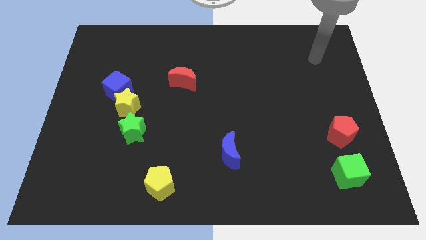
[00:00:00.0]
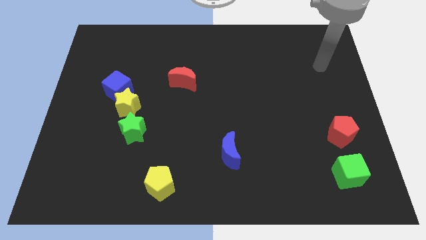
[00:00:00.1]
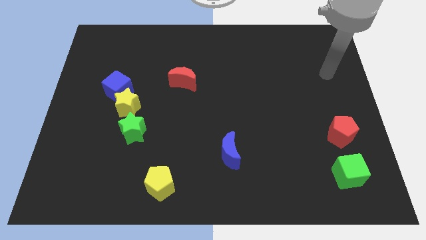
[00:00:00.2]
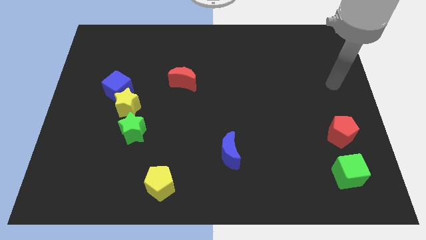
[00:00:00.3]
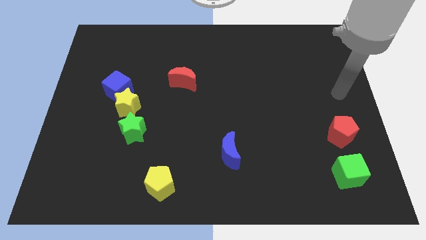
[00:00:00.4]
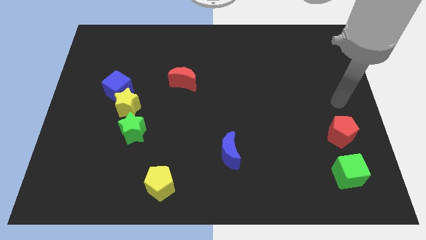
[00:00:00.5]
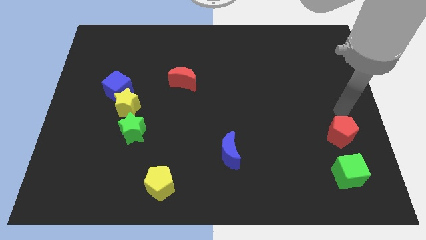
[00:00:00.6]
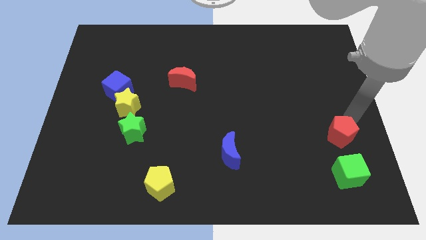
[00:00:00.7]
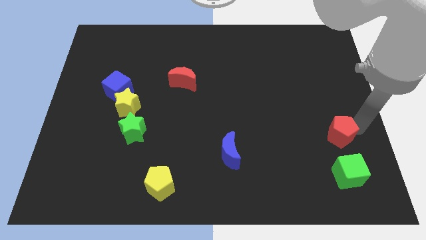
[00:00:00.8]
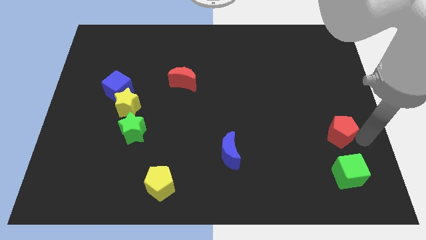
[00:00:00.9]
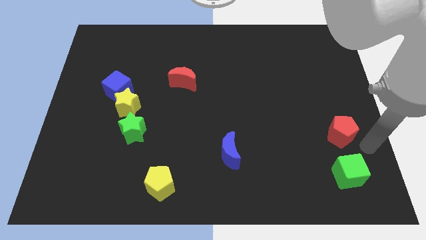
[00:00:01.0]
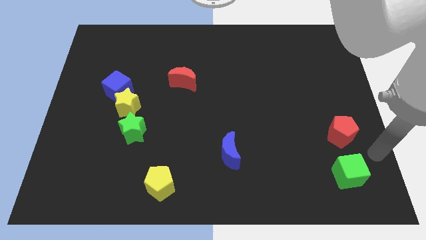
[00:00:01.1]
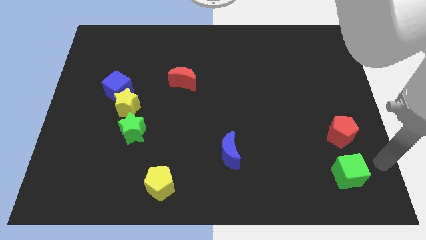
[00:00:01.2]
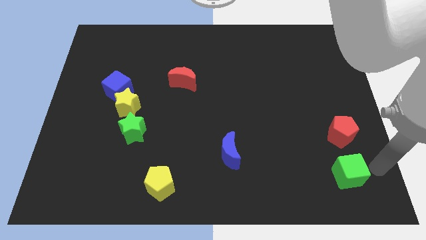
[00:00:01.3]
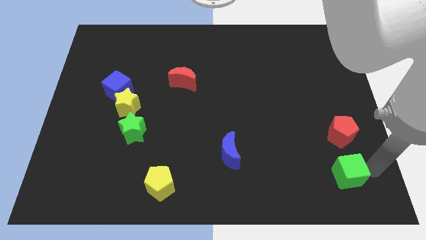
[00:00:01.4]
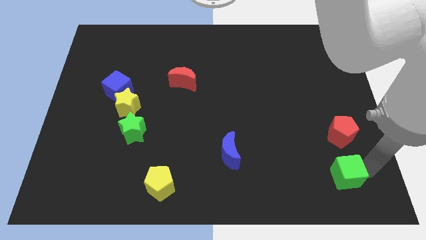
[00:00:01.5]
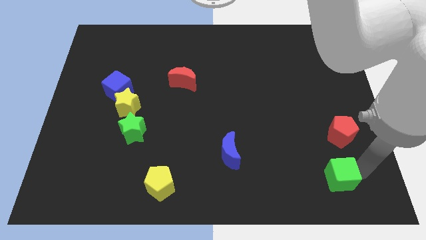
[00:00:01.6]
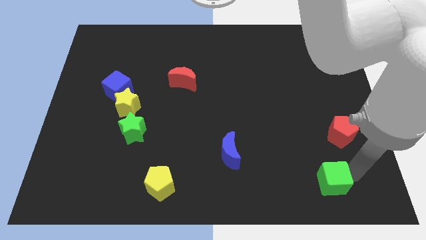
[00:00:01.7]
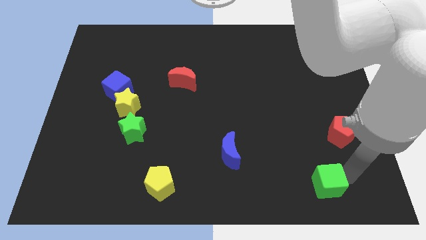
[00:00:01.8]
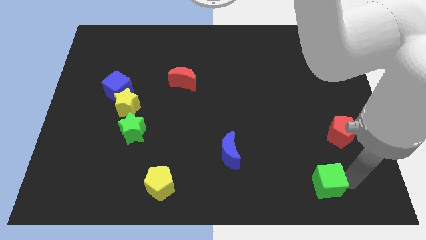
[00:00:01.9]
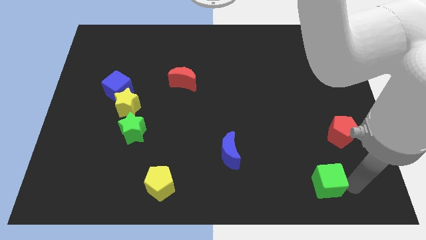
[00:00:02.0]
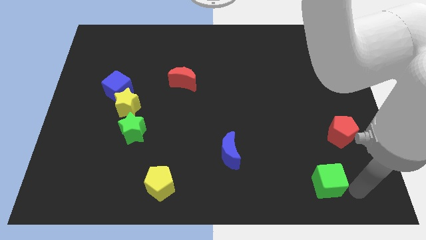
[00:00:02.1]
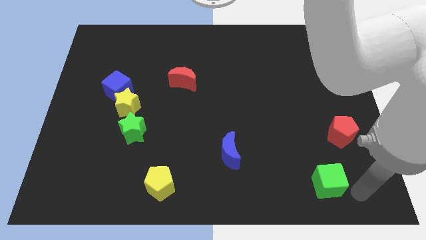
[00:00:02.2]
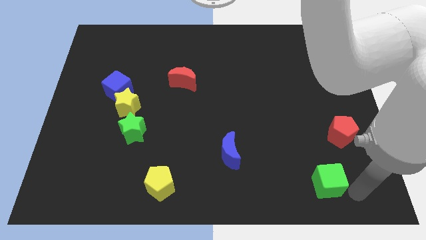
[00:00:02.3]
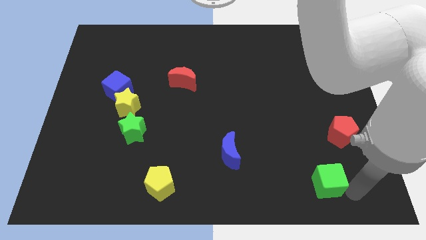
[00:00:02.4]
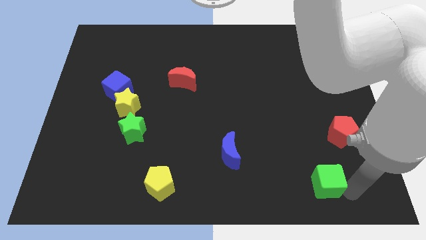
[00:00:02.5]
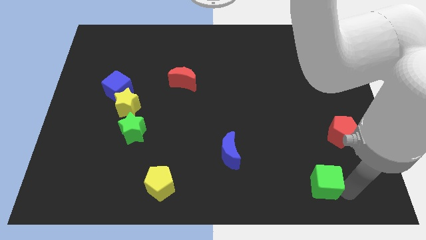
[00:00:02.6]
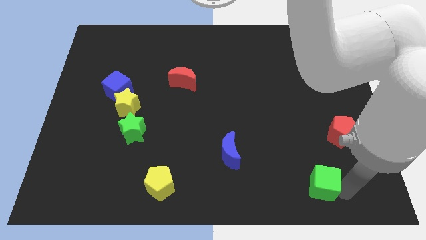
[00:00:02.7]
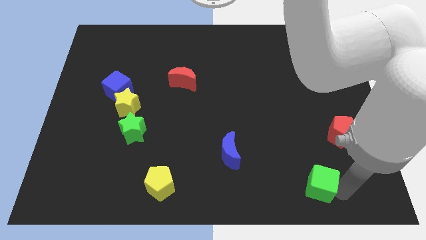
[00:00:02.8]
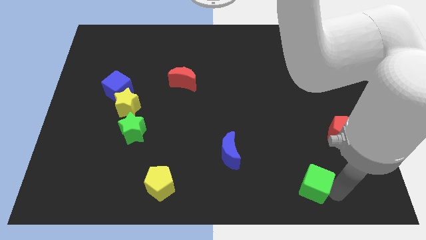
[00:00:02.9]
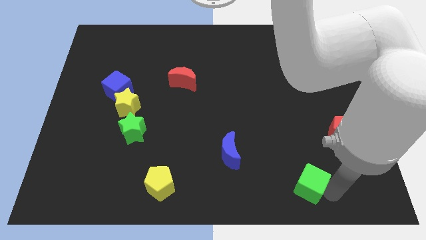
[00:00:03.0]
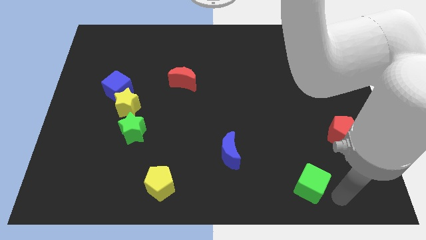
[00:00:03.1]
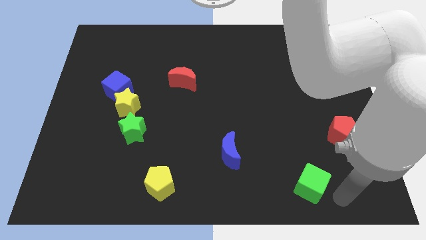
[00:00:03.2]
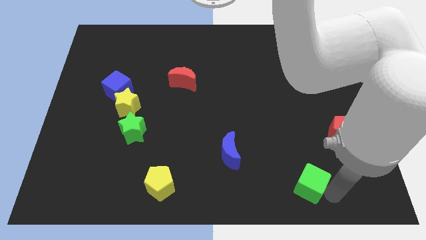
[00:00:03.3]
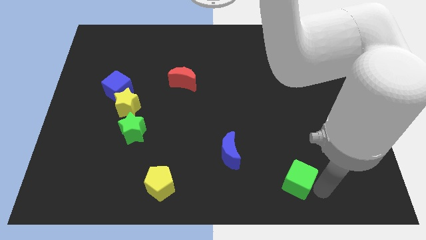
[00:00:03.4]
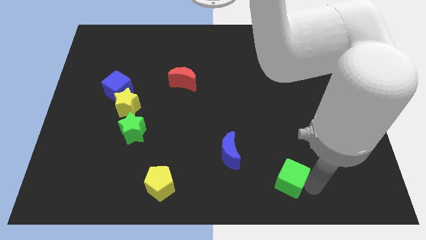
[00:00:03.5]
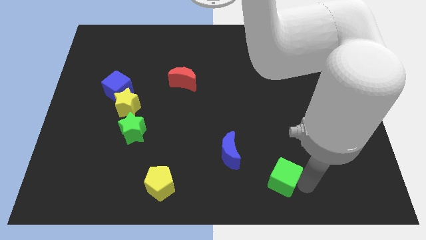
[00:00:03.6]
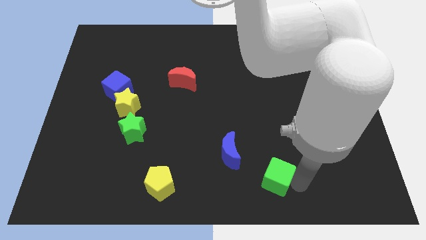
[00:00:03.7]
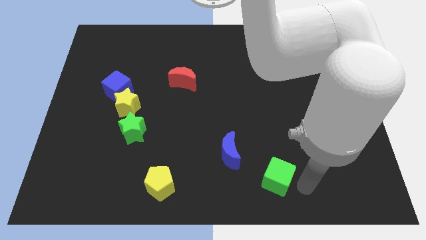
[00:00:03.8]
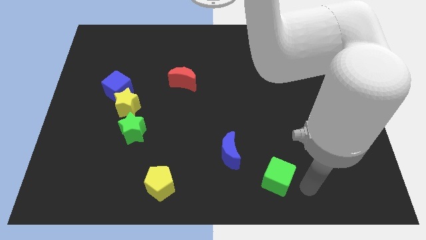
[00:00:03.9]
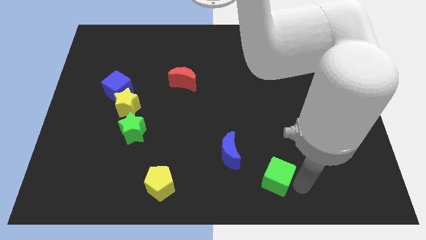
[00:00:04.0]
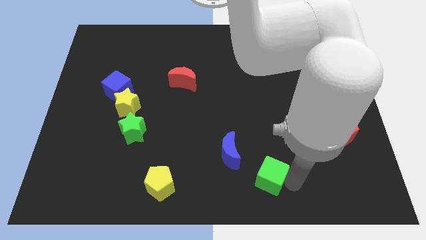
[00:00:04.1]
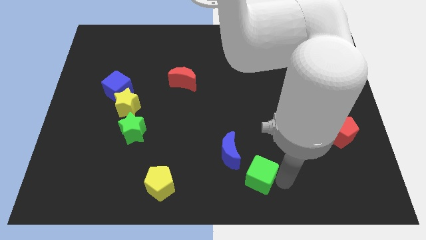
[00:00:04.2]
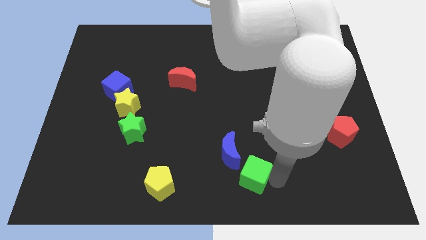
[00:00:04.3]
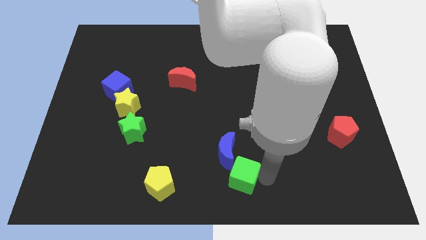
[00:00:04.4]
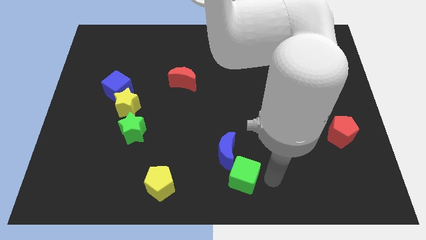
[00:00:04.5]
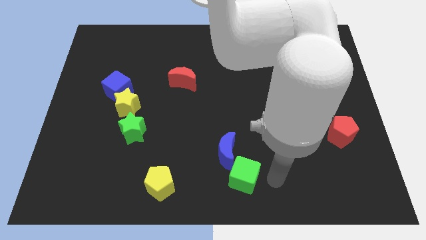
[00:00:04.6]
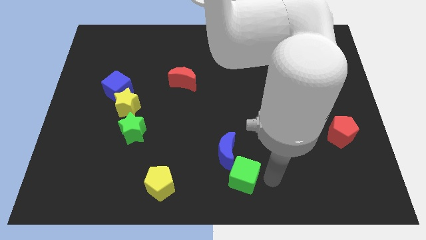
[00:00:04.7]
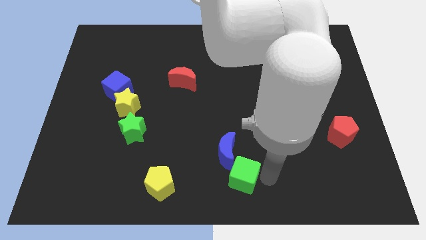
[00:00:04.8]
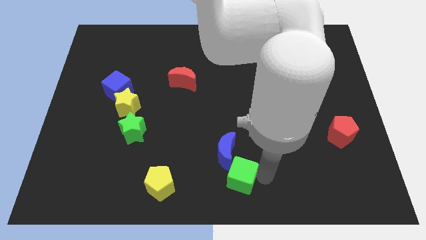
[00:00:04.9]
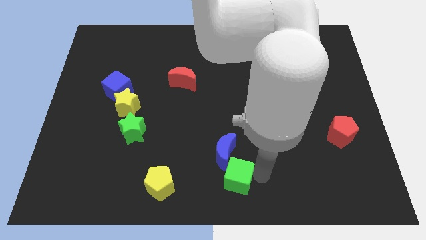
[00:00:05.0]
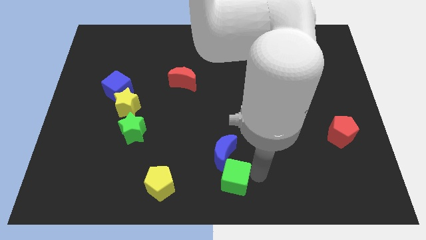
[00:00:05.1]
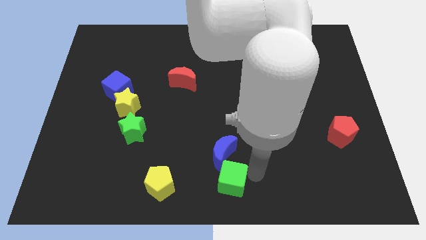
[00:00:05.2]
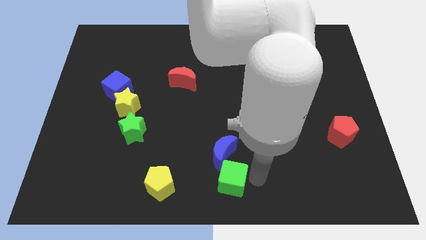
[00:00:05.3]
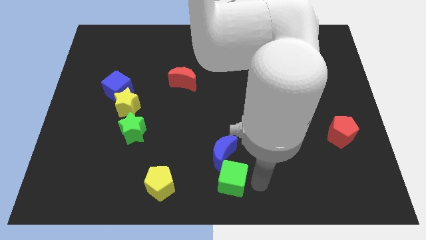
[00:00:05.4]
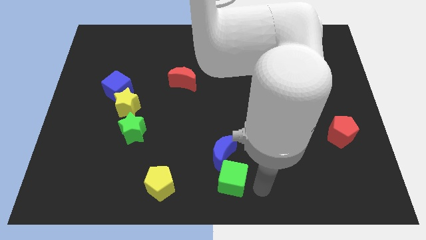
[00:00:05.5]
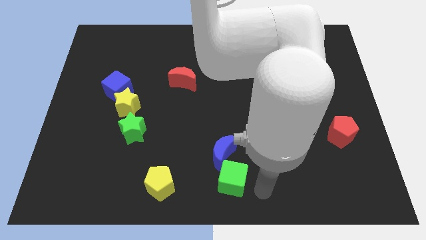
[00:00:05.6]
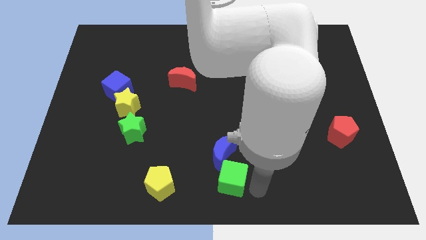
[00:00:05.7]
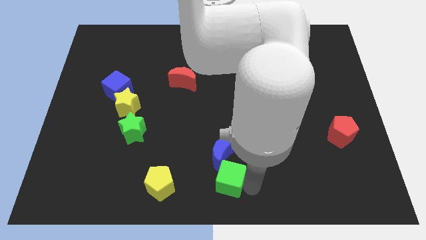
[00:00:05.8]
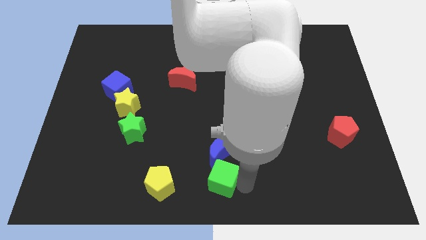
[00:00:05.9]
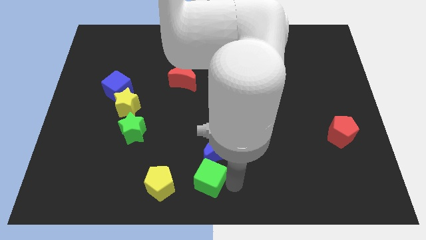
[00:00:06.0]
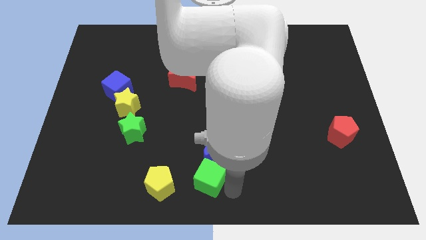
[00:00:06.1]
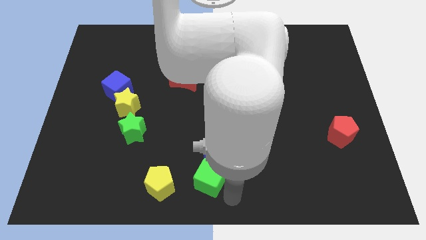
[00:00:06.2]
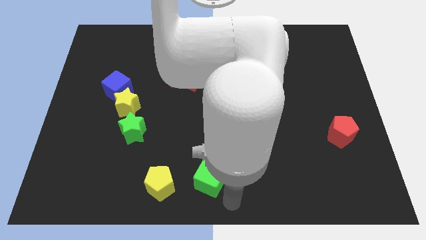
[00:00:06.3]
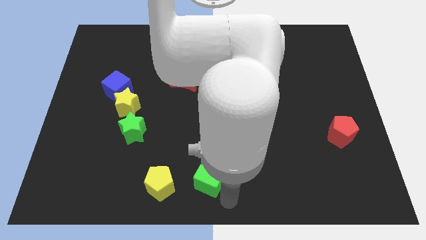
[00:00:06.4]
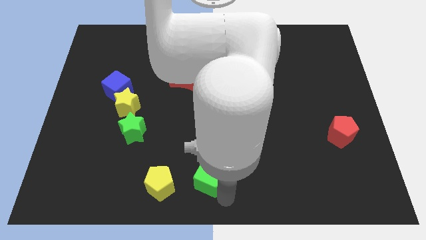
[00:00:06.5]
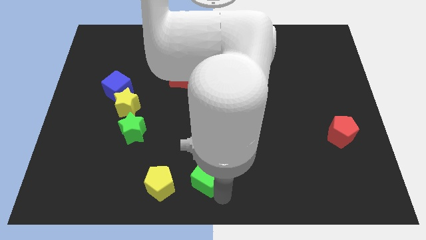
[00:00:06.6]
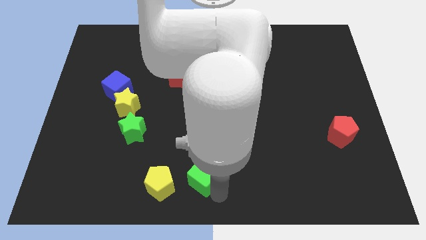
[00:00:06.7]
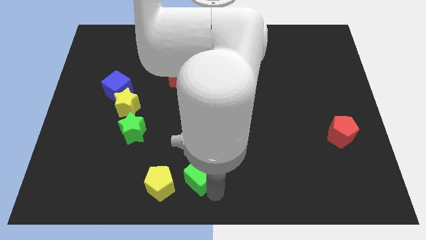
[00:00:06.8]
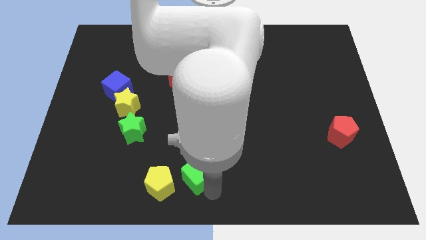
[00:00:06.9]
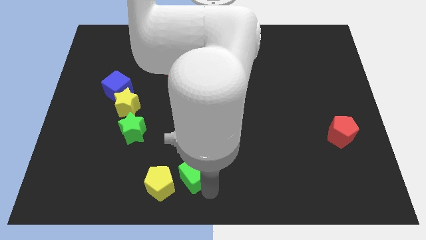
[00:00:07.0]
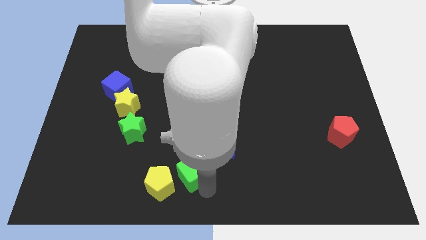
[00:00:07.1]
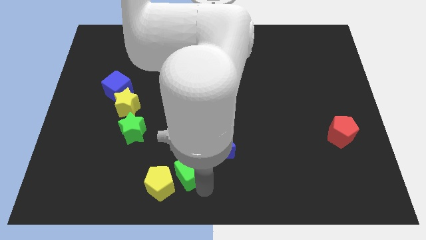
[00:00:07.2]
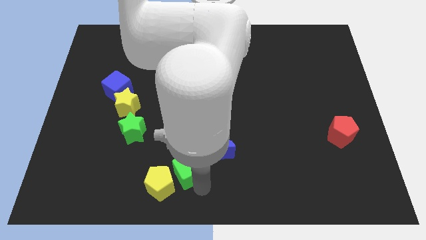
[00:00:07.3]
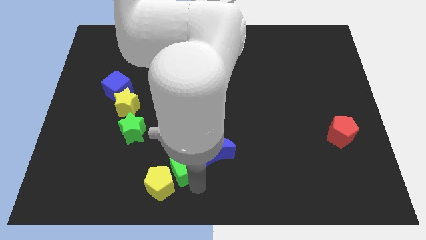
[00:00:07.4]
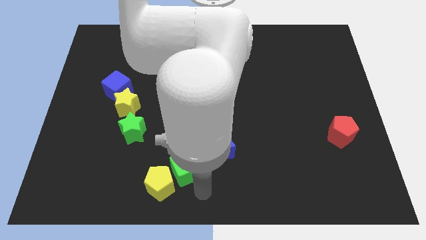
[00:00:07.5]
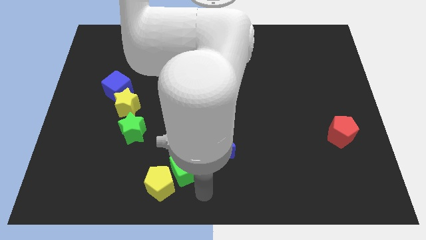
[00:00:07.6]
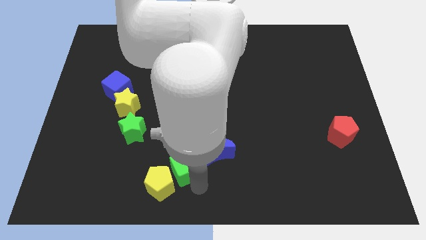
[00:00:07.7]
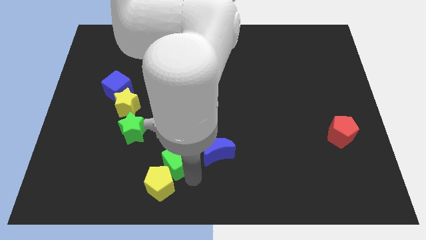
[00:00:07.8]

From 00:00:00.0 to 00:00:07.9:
put the green cube to the top side of the yellow pentagon
